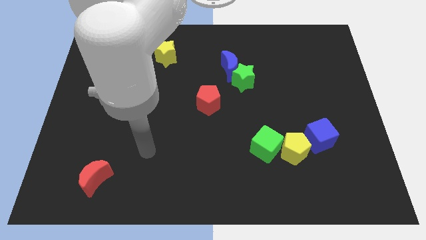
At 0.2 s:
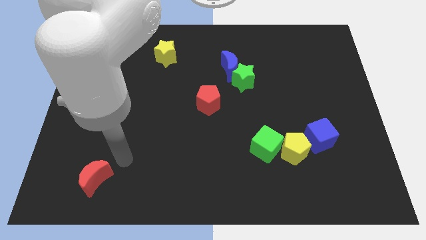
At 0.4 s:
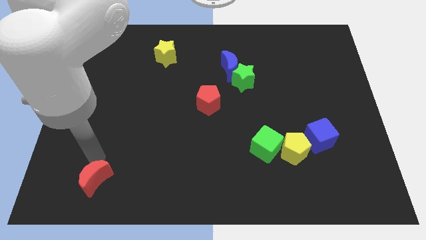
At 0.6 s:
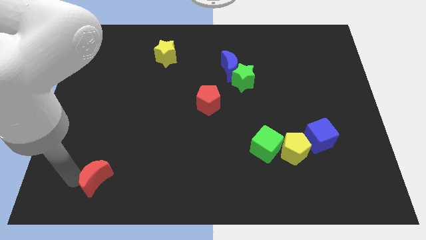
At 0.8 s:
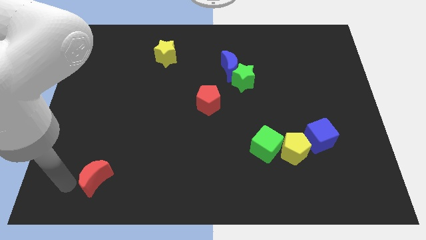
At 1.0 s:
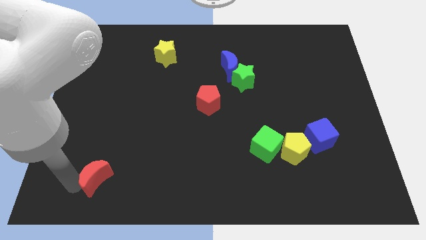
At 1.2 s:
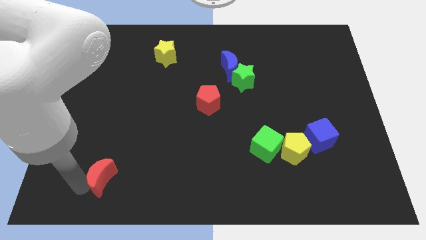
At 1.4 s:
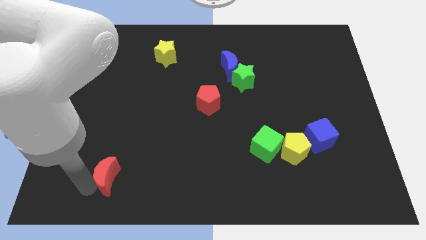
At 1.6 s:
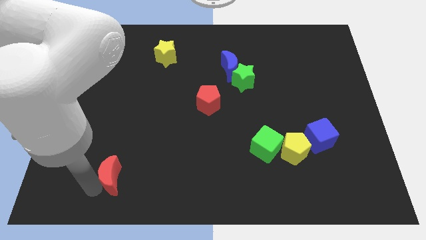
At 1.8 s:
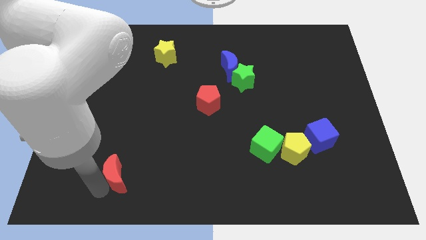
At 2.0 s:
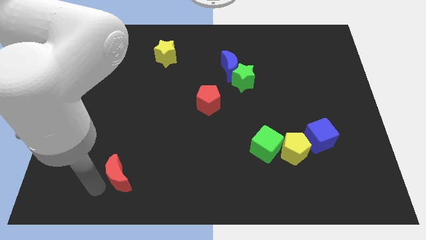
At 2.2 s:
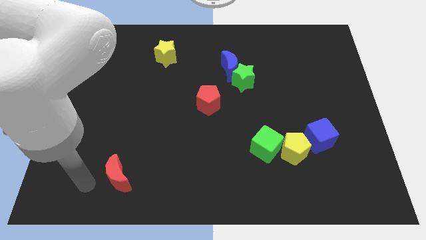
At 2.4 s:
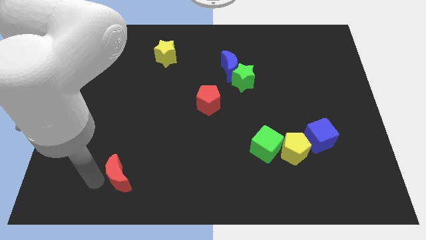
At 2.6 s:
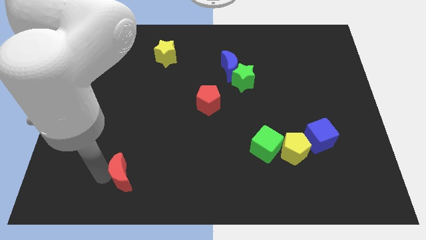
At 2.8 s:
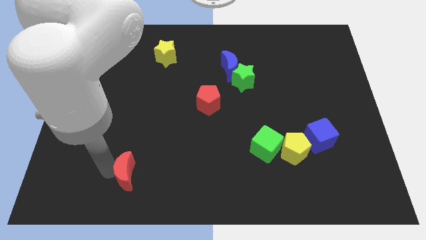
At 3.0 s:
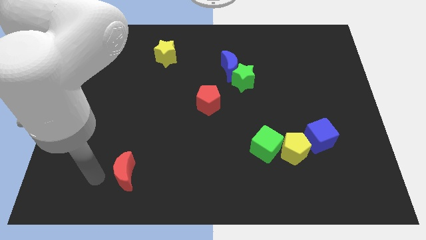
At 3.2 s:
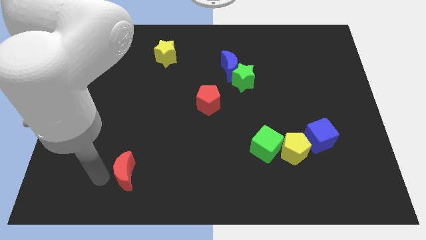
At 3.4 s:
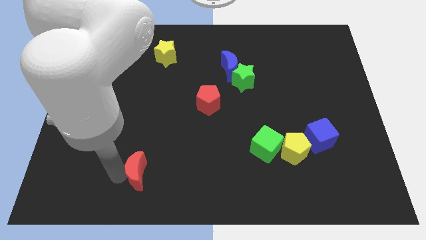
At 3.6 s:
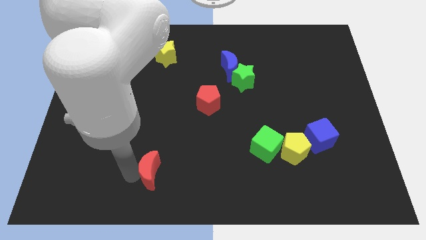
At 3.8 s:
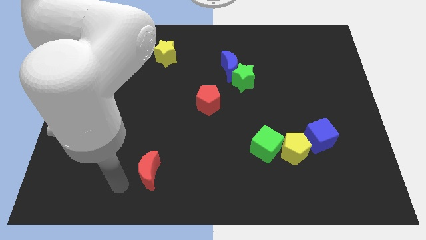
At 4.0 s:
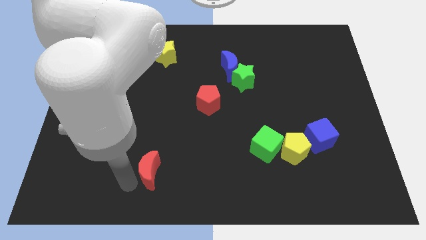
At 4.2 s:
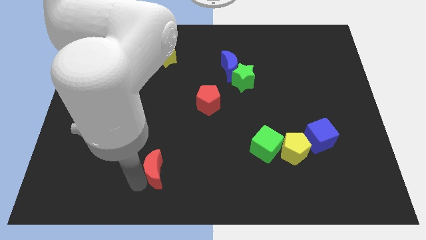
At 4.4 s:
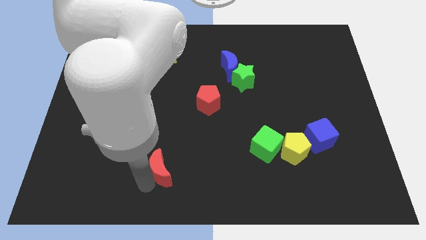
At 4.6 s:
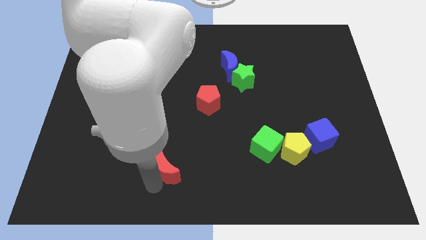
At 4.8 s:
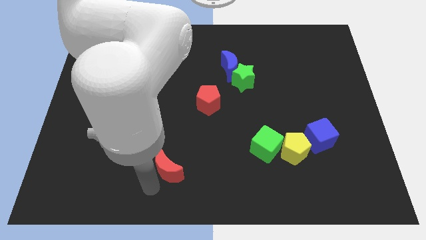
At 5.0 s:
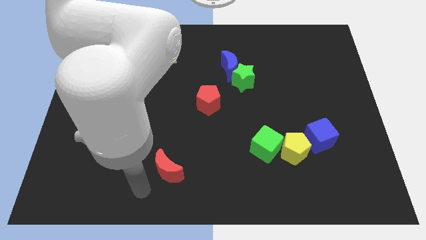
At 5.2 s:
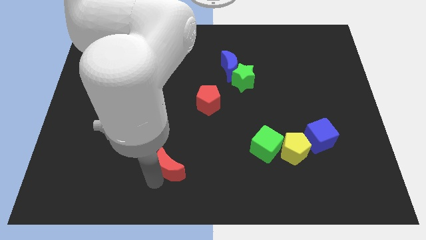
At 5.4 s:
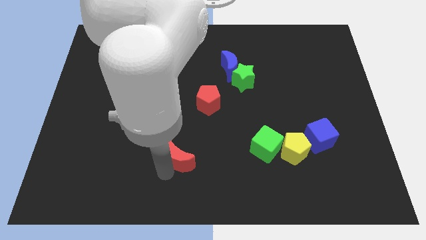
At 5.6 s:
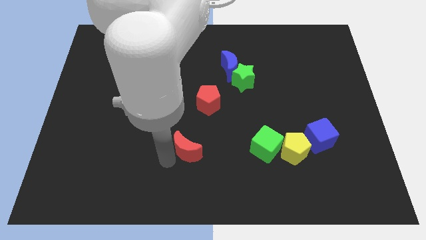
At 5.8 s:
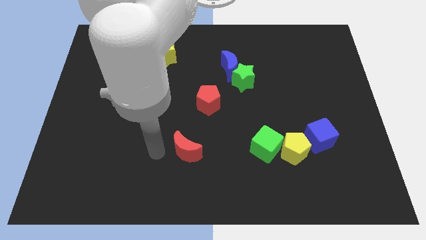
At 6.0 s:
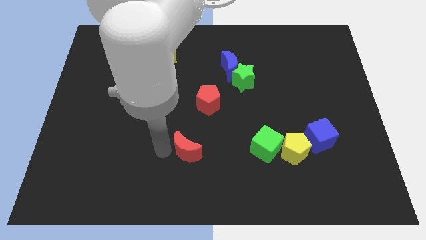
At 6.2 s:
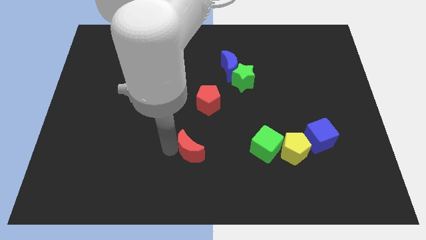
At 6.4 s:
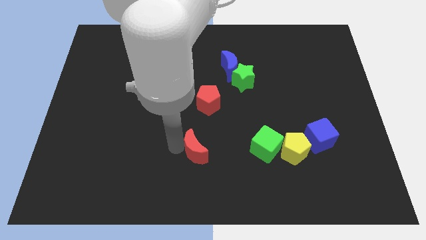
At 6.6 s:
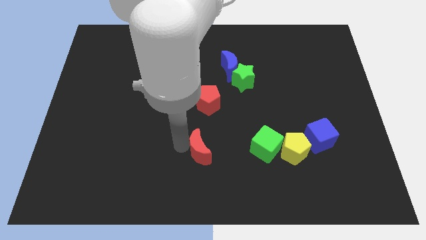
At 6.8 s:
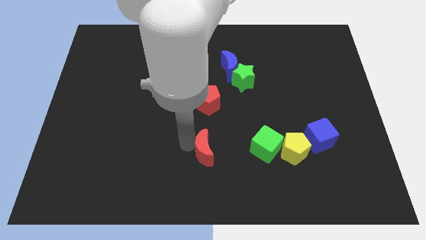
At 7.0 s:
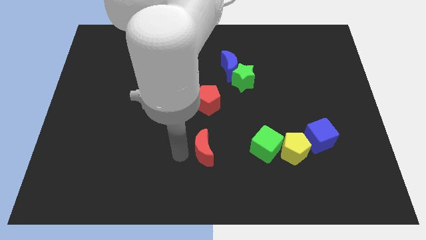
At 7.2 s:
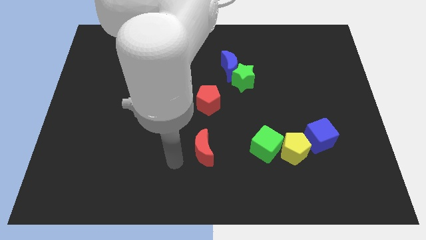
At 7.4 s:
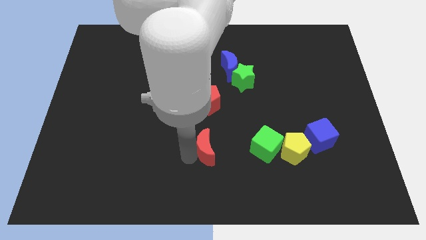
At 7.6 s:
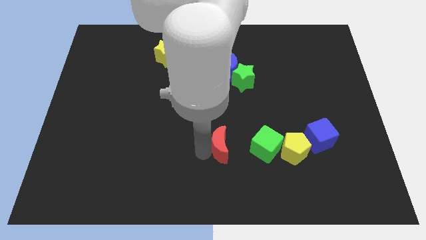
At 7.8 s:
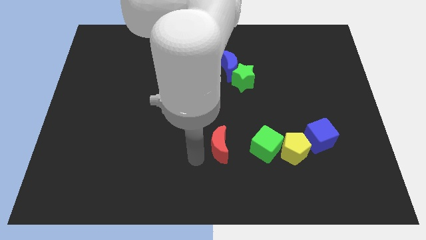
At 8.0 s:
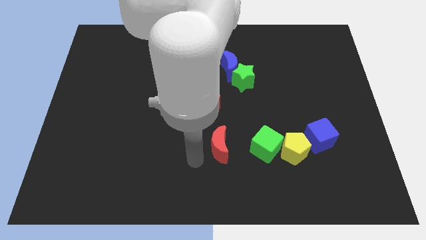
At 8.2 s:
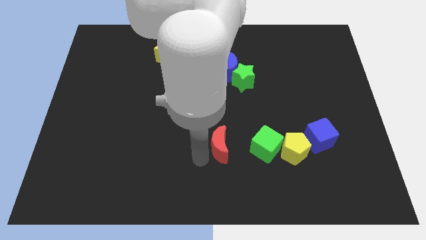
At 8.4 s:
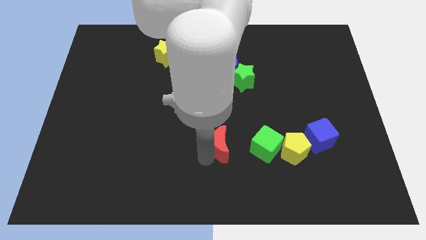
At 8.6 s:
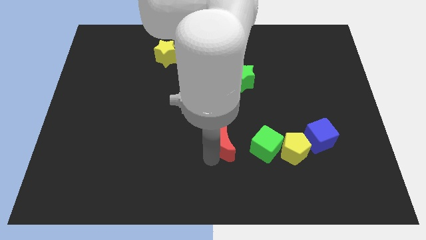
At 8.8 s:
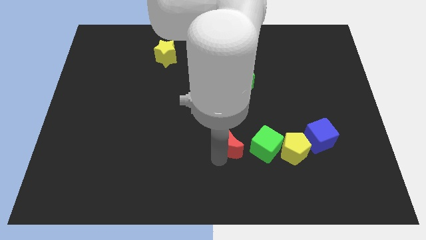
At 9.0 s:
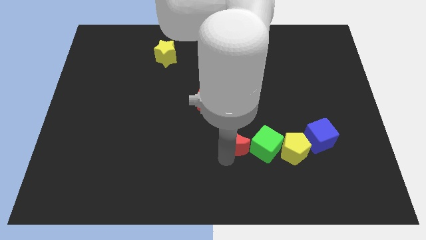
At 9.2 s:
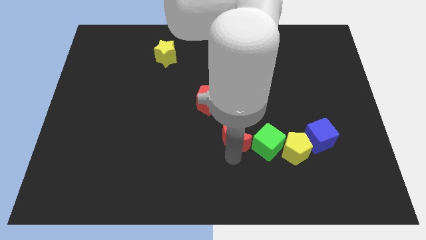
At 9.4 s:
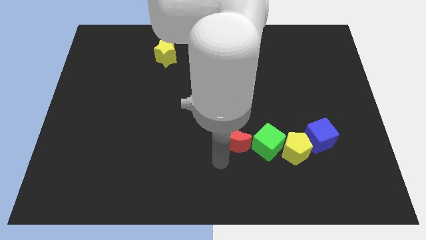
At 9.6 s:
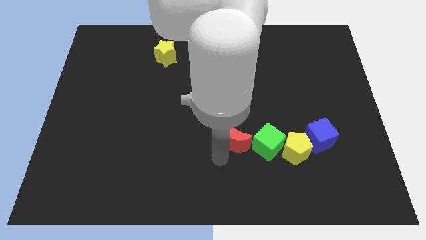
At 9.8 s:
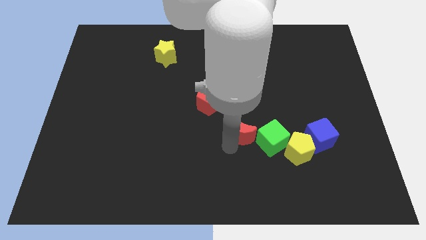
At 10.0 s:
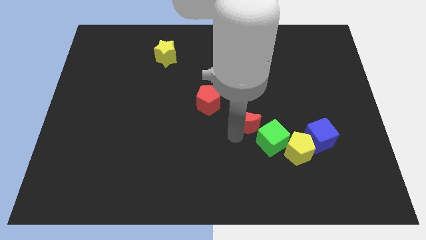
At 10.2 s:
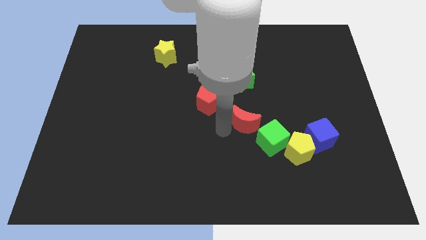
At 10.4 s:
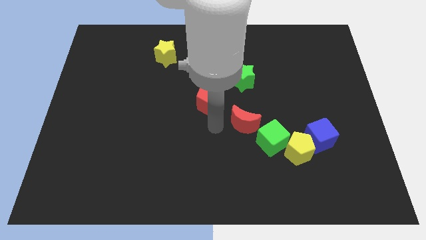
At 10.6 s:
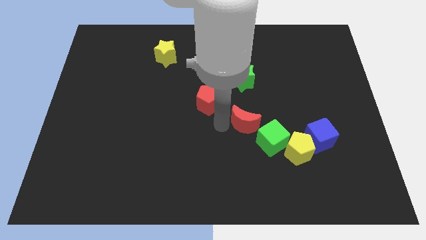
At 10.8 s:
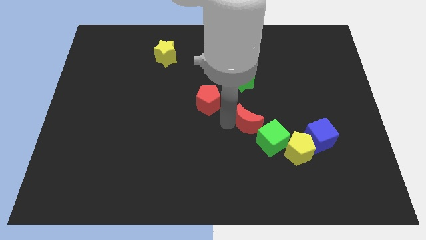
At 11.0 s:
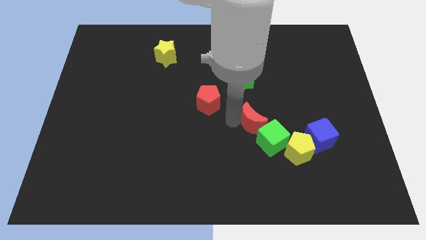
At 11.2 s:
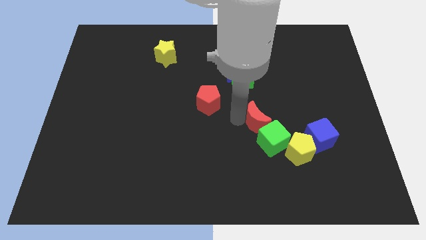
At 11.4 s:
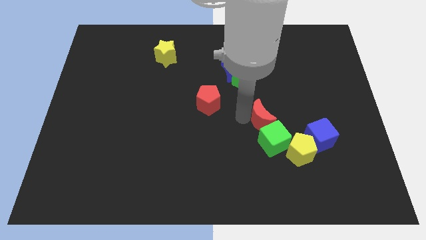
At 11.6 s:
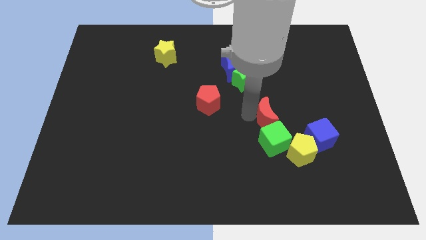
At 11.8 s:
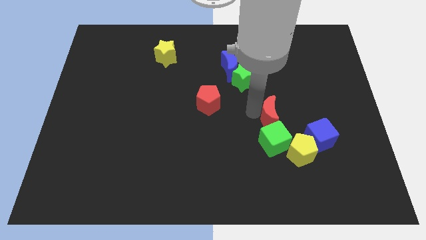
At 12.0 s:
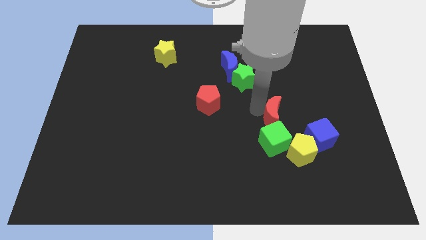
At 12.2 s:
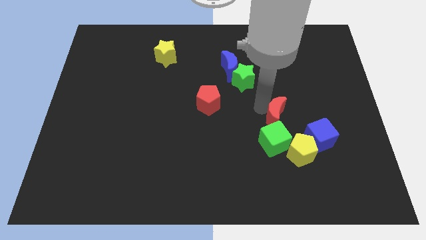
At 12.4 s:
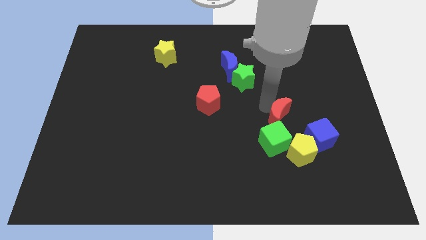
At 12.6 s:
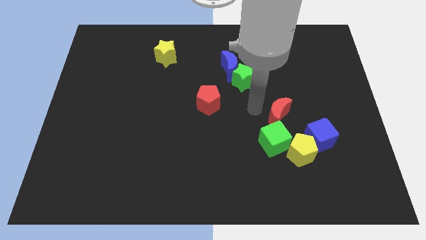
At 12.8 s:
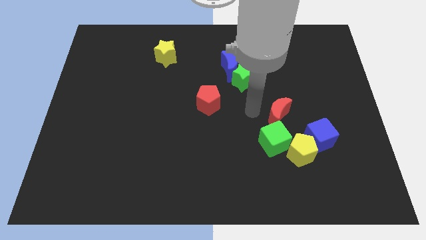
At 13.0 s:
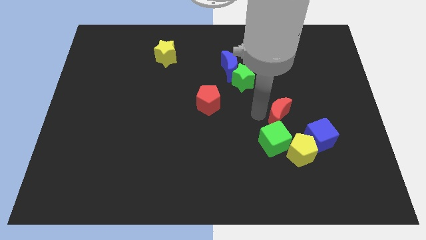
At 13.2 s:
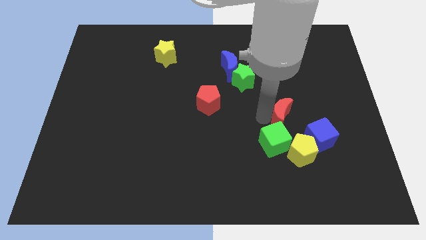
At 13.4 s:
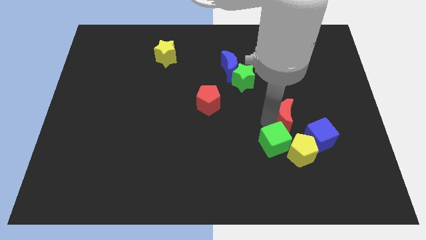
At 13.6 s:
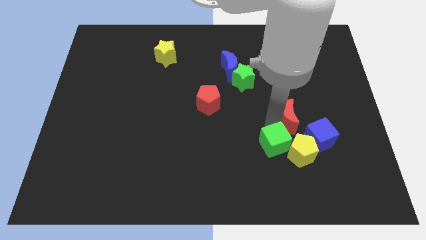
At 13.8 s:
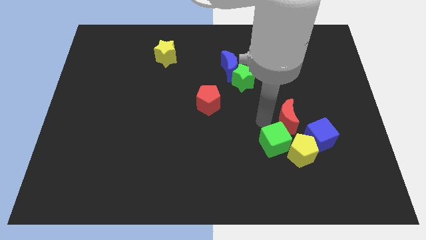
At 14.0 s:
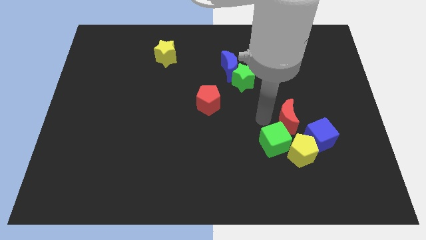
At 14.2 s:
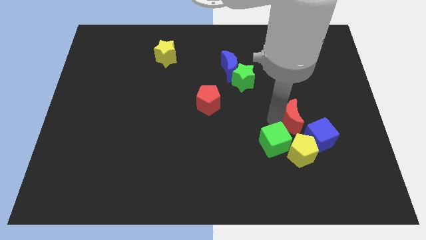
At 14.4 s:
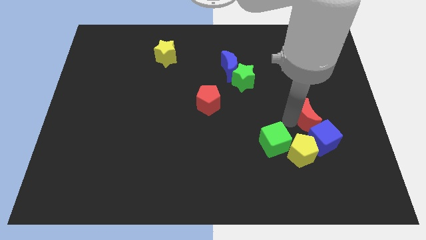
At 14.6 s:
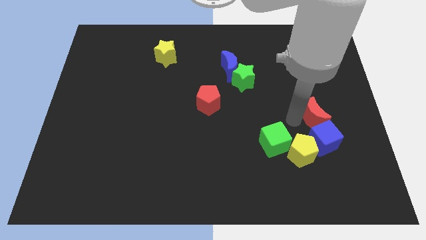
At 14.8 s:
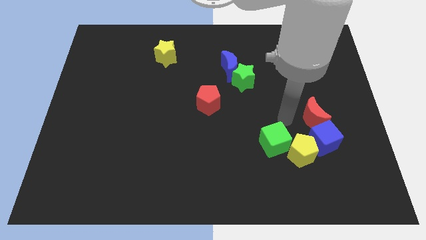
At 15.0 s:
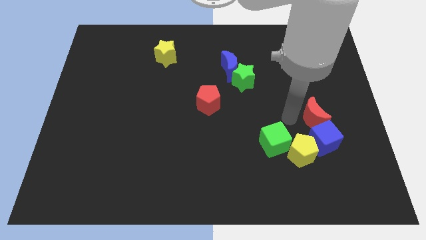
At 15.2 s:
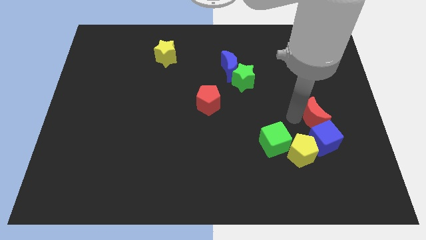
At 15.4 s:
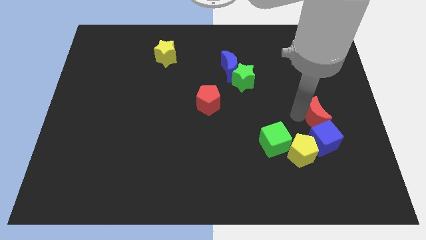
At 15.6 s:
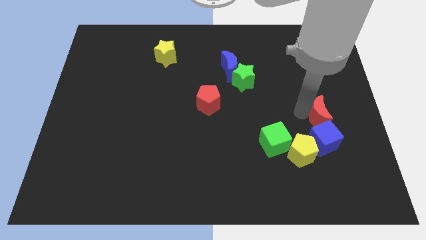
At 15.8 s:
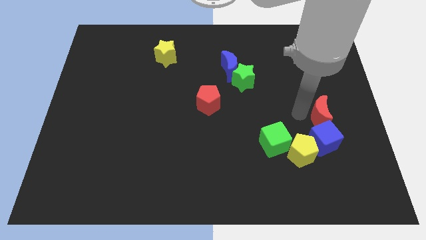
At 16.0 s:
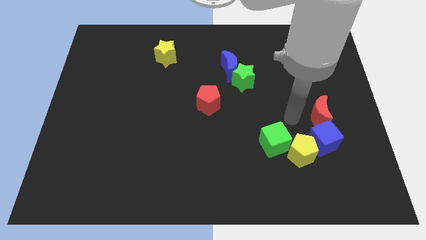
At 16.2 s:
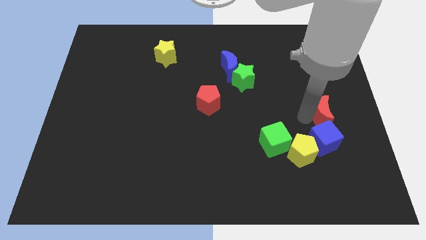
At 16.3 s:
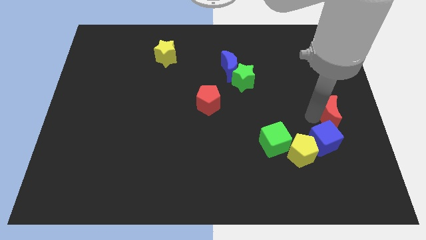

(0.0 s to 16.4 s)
push the red moon to the right side
